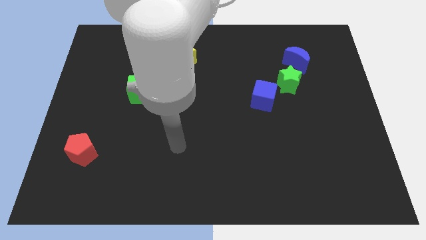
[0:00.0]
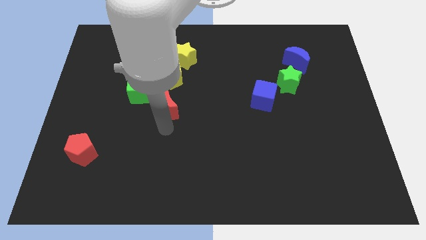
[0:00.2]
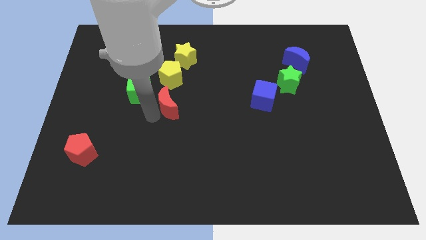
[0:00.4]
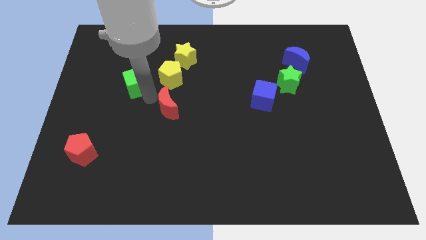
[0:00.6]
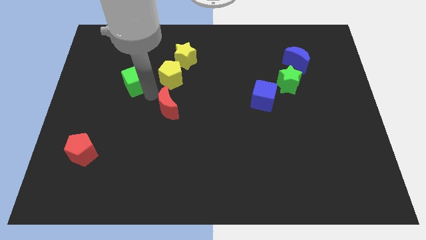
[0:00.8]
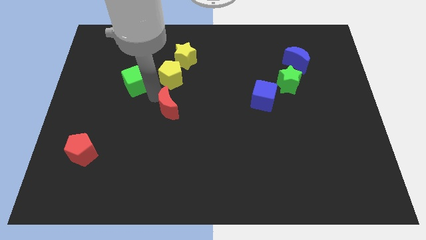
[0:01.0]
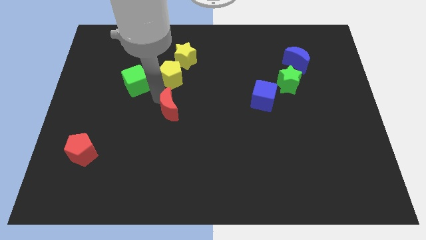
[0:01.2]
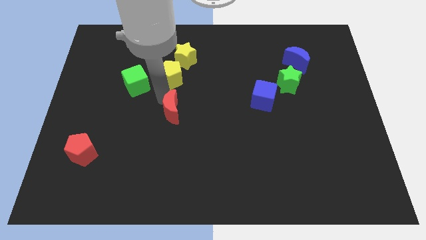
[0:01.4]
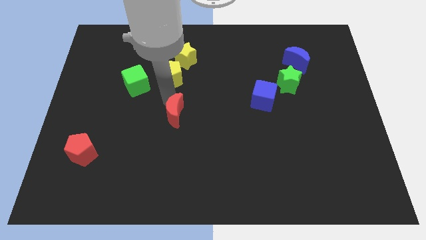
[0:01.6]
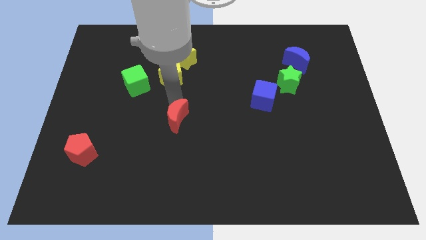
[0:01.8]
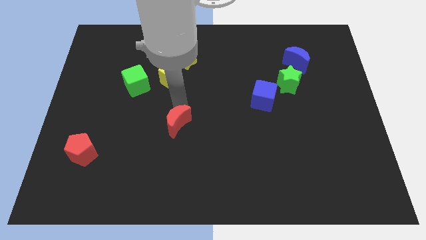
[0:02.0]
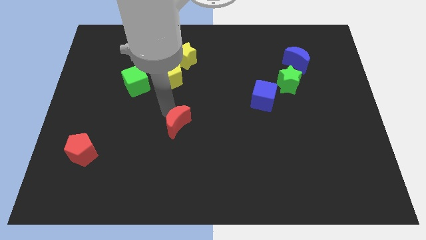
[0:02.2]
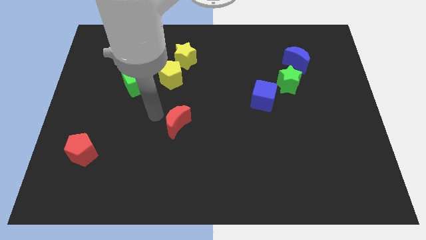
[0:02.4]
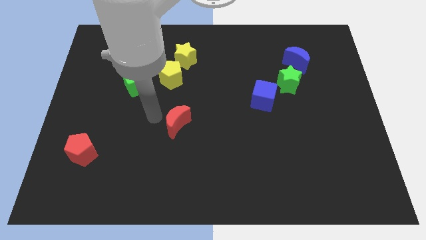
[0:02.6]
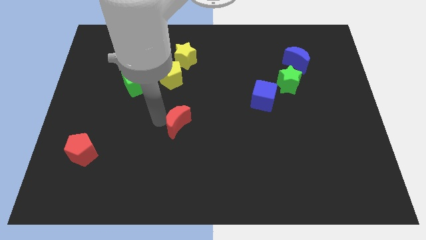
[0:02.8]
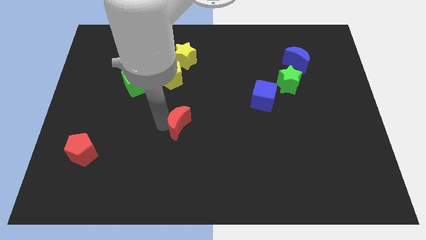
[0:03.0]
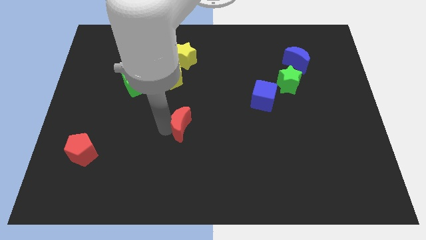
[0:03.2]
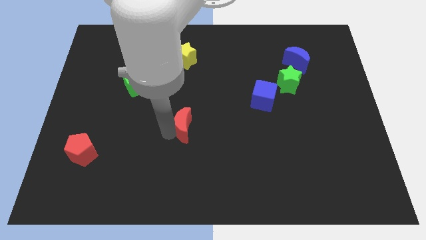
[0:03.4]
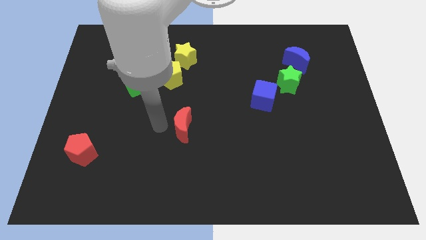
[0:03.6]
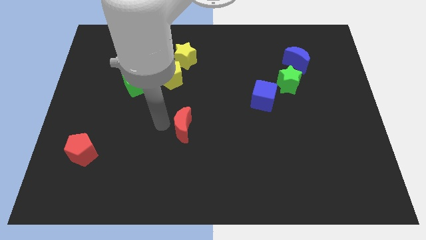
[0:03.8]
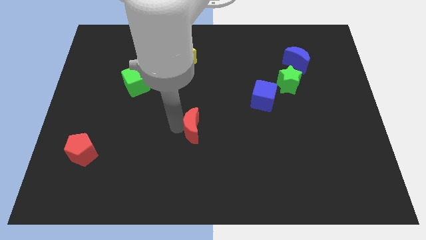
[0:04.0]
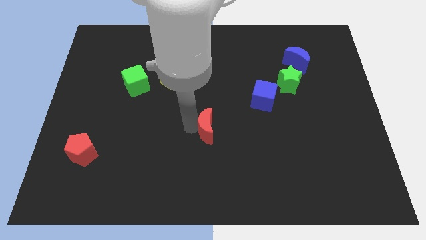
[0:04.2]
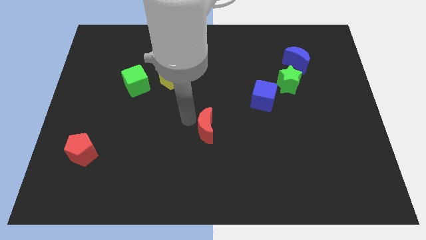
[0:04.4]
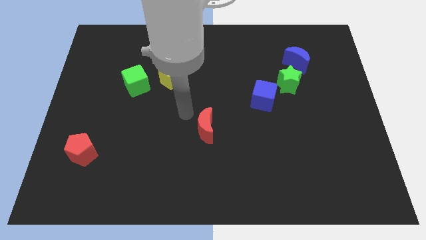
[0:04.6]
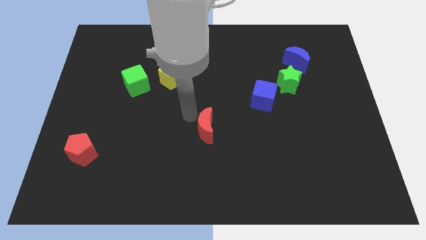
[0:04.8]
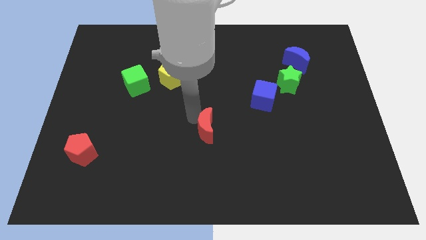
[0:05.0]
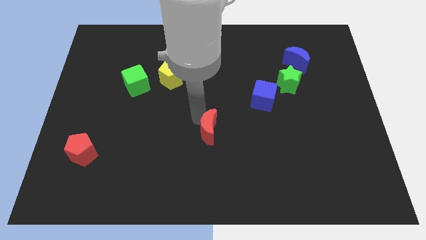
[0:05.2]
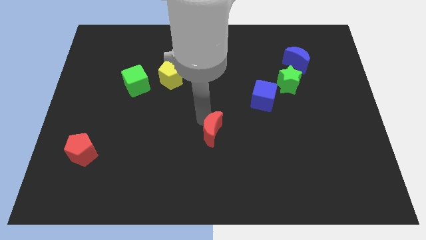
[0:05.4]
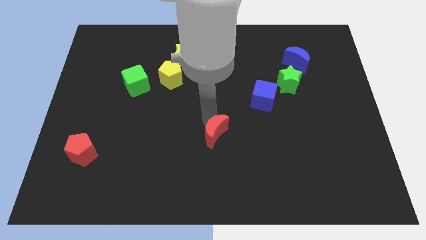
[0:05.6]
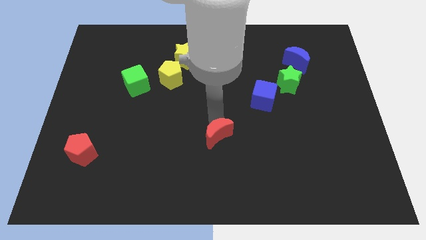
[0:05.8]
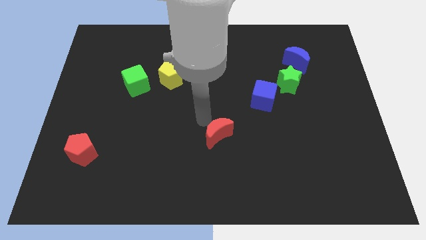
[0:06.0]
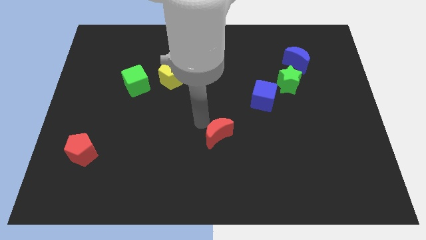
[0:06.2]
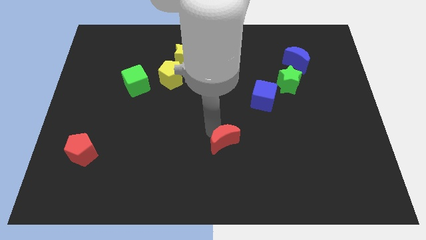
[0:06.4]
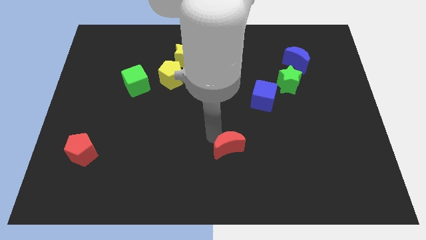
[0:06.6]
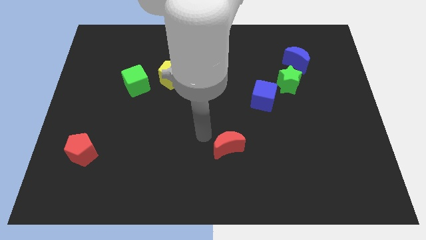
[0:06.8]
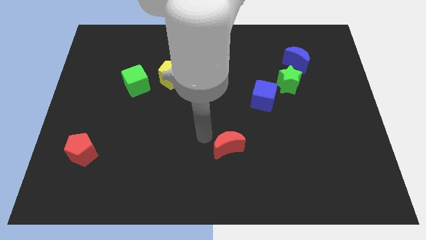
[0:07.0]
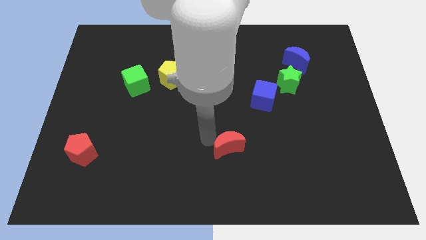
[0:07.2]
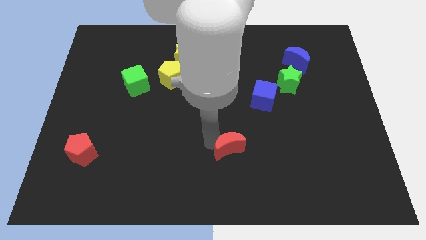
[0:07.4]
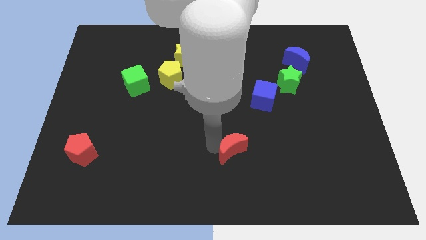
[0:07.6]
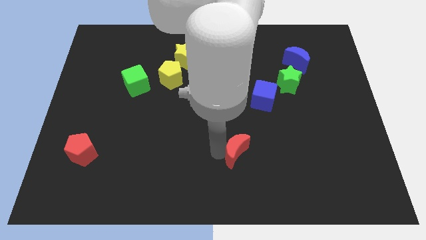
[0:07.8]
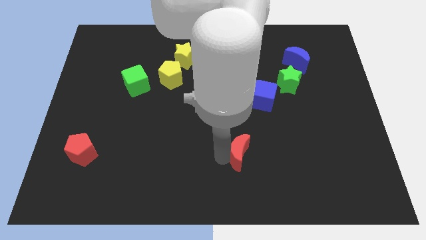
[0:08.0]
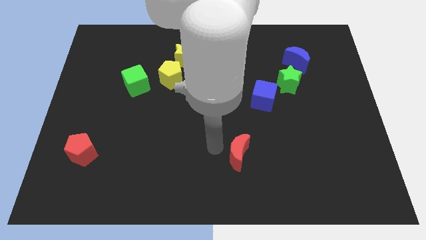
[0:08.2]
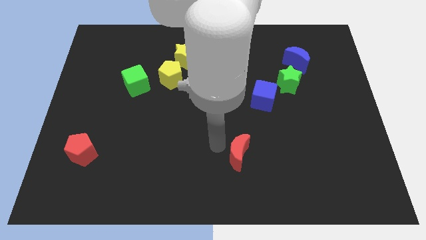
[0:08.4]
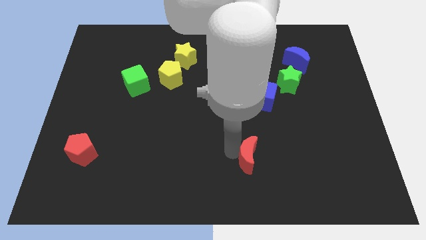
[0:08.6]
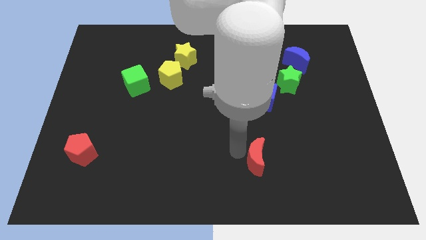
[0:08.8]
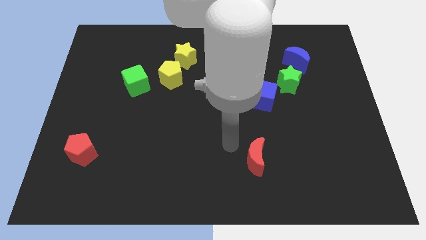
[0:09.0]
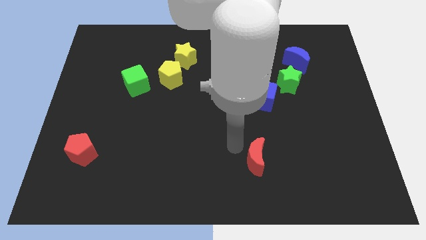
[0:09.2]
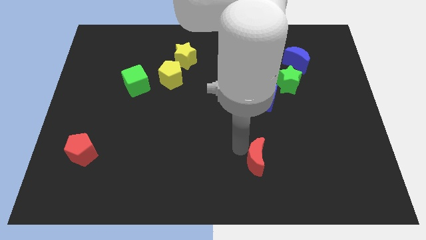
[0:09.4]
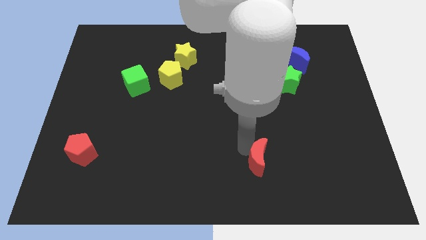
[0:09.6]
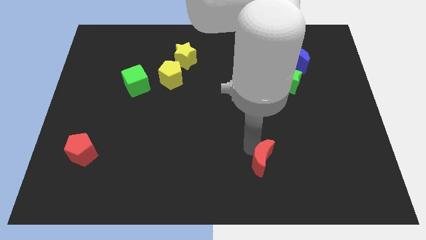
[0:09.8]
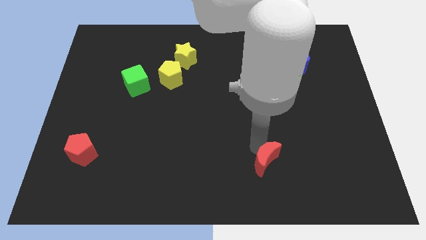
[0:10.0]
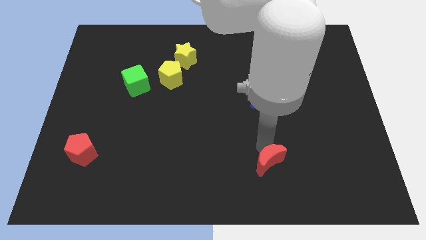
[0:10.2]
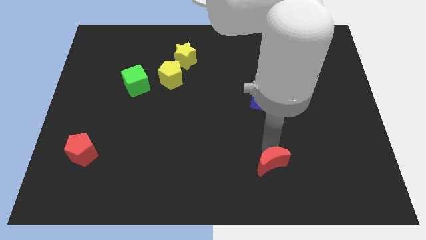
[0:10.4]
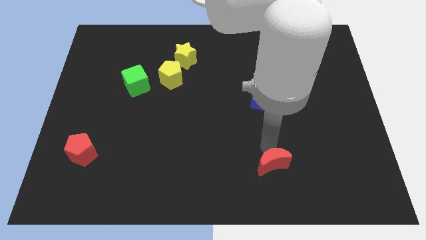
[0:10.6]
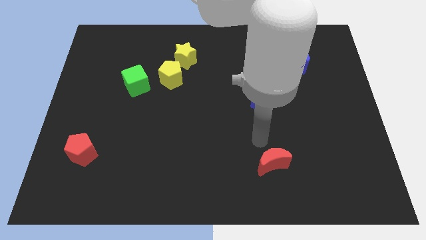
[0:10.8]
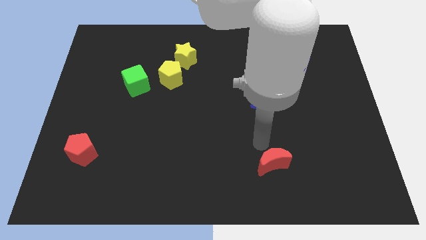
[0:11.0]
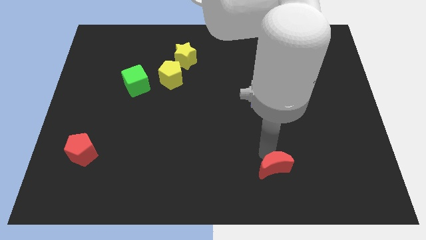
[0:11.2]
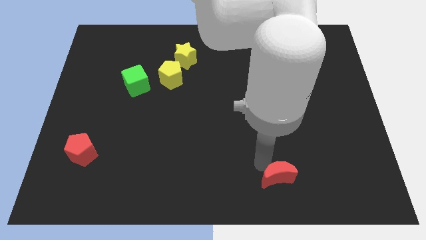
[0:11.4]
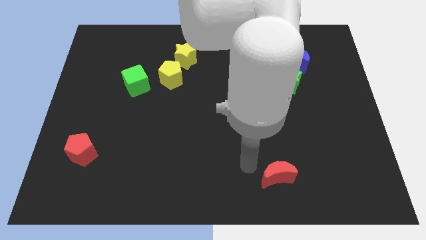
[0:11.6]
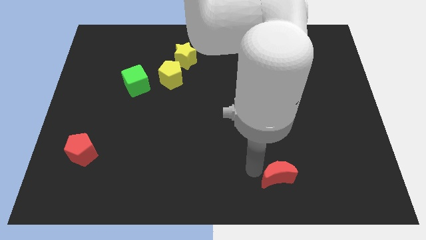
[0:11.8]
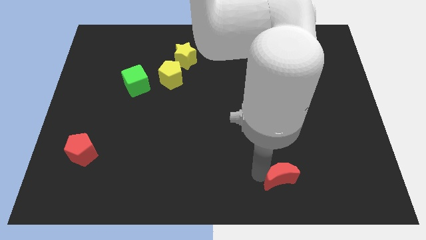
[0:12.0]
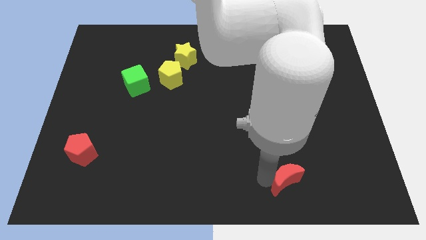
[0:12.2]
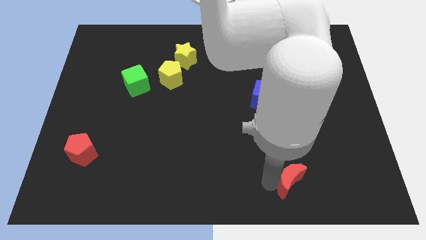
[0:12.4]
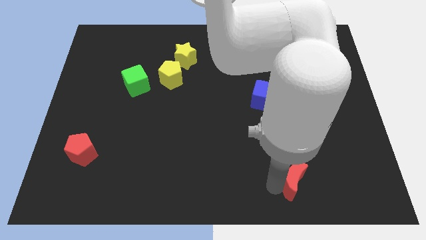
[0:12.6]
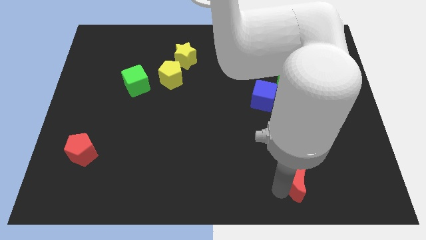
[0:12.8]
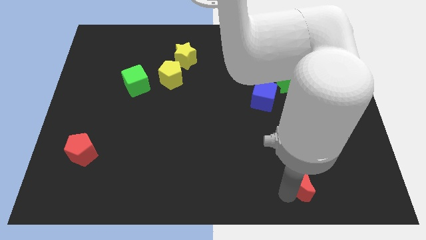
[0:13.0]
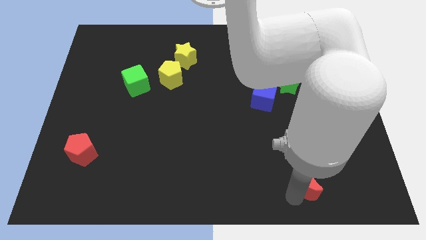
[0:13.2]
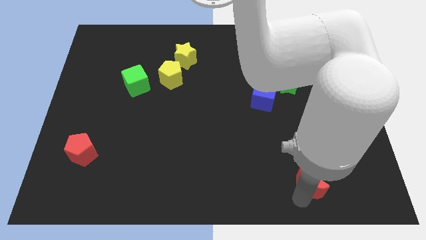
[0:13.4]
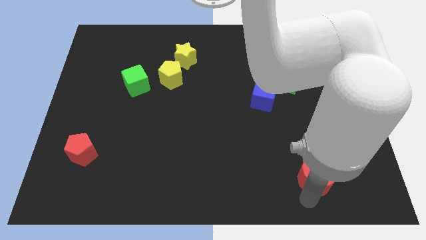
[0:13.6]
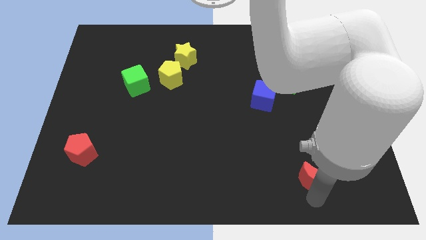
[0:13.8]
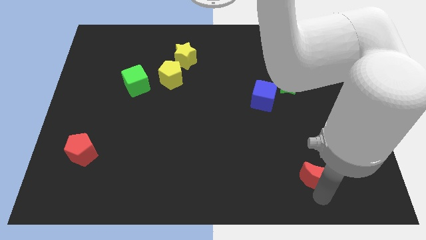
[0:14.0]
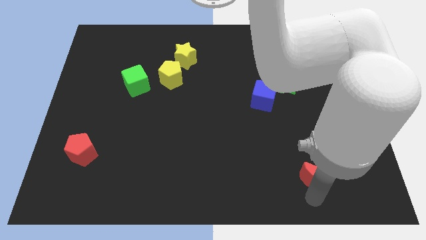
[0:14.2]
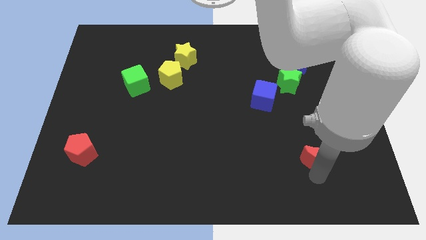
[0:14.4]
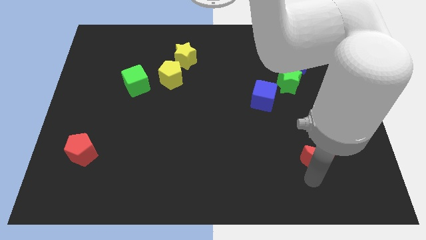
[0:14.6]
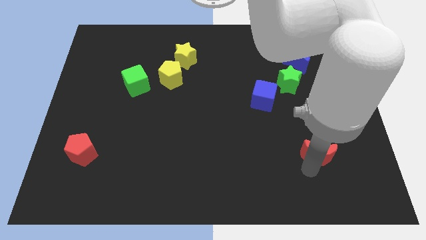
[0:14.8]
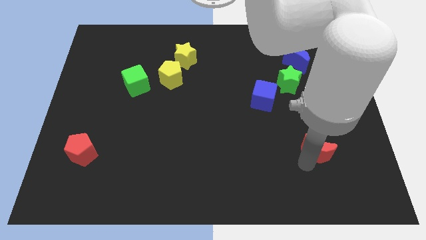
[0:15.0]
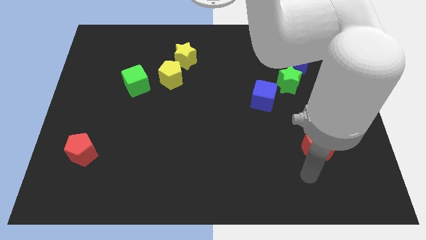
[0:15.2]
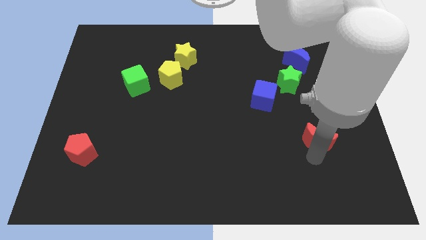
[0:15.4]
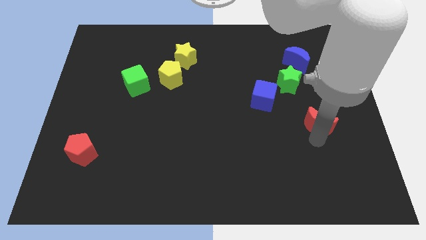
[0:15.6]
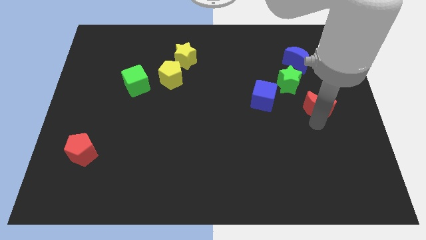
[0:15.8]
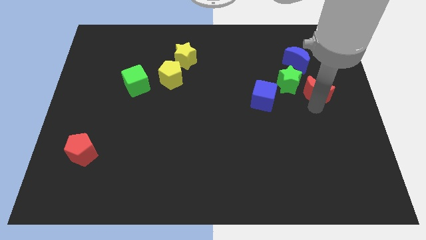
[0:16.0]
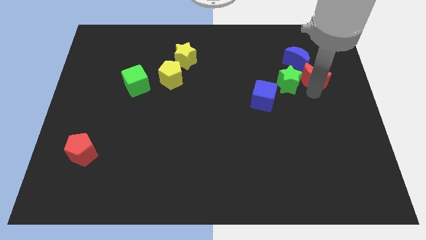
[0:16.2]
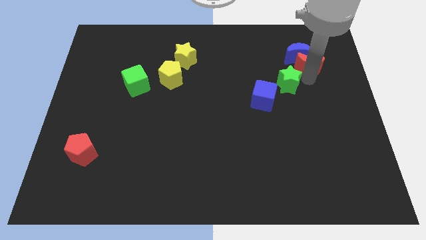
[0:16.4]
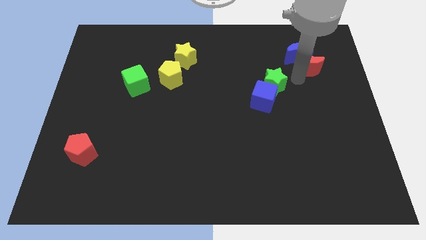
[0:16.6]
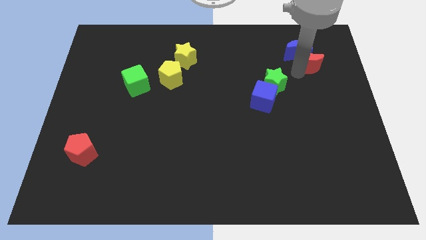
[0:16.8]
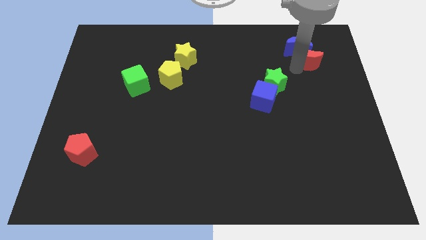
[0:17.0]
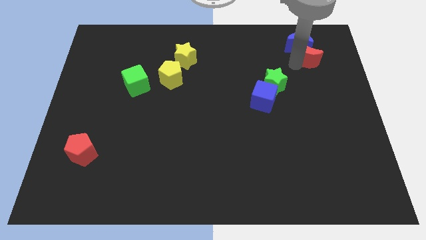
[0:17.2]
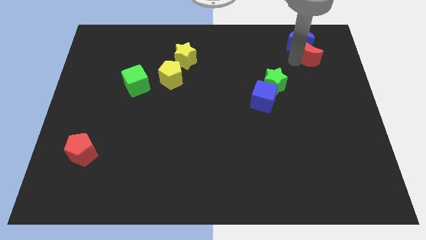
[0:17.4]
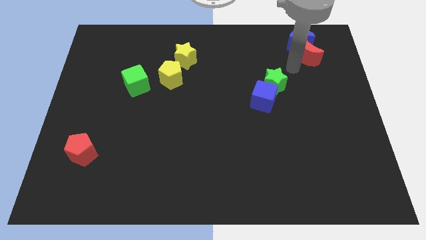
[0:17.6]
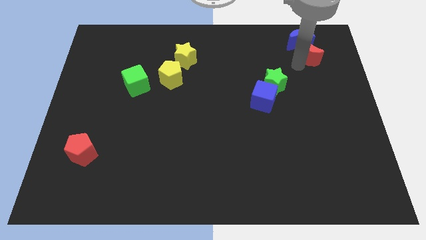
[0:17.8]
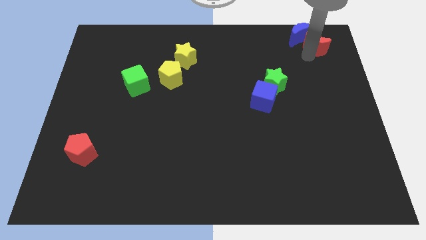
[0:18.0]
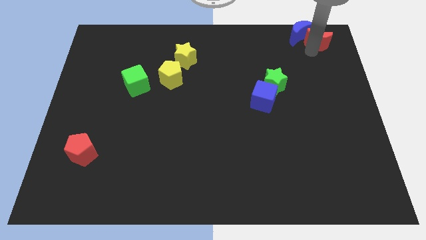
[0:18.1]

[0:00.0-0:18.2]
put the red moon to the top right corner
